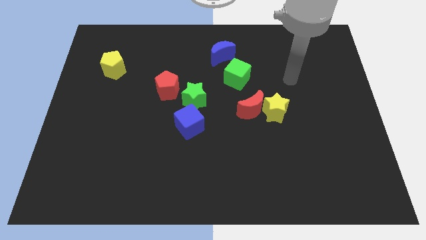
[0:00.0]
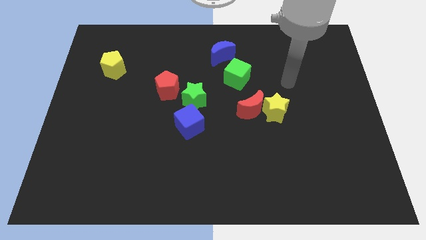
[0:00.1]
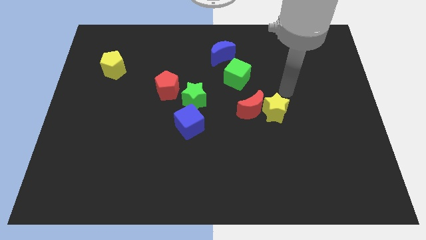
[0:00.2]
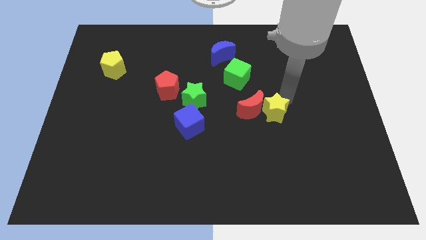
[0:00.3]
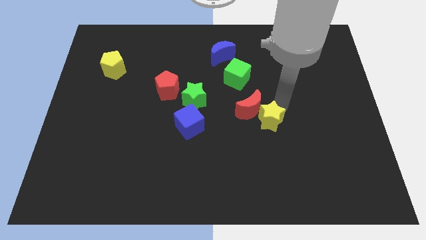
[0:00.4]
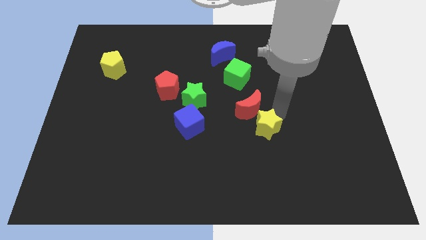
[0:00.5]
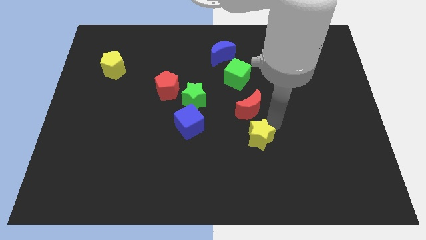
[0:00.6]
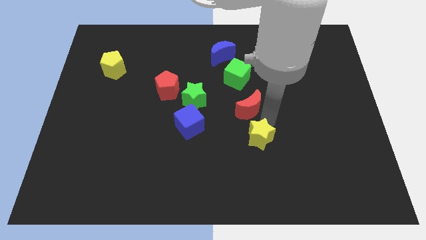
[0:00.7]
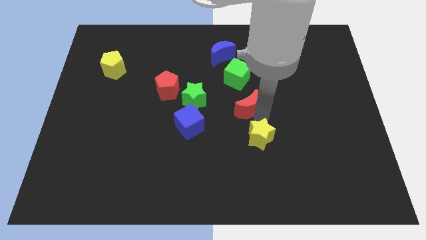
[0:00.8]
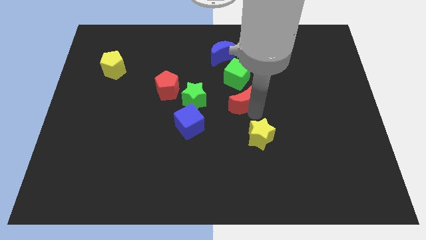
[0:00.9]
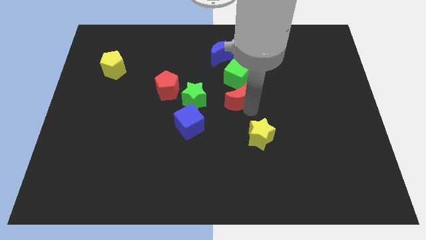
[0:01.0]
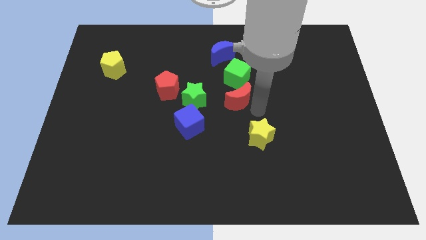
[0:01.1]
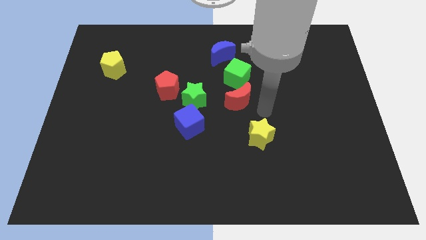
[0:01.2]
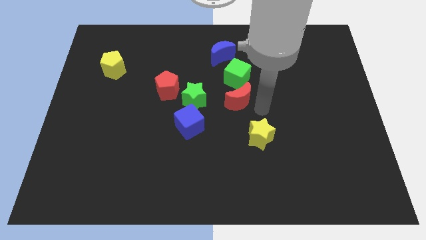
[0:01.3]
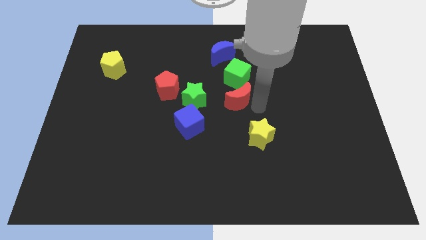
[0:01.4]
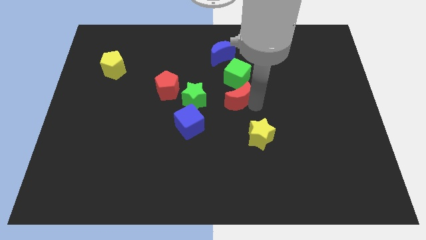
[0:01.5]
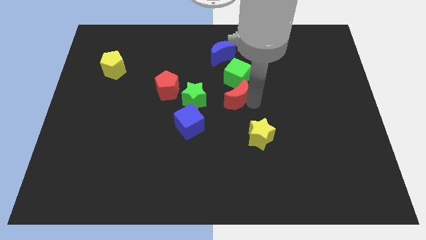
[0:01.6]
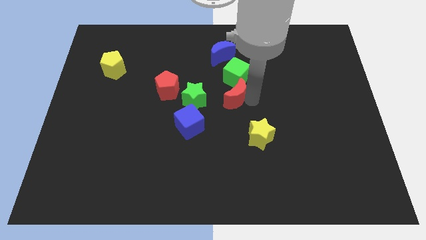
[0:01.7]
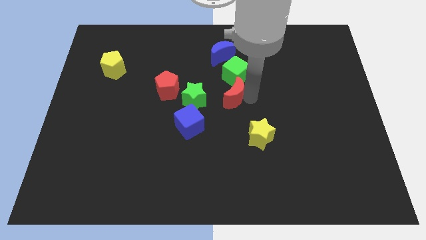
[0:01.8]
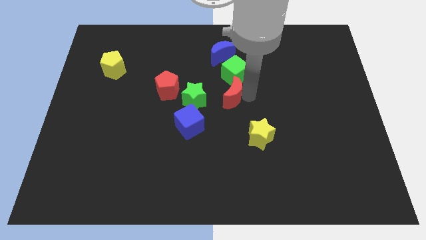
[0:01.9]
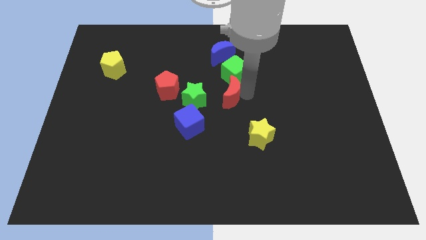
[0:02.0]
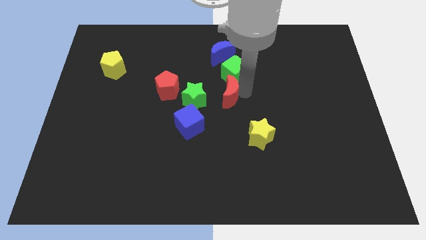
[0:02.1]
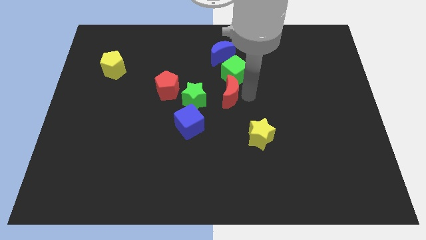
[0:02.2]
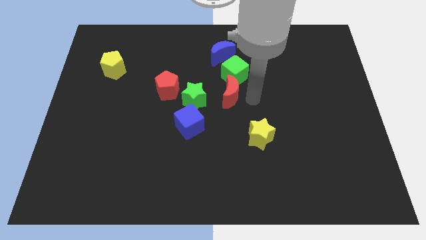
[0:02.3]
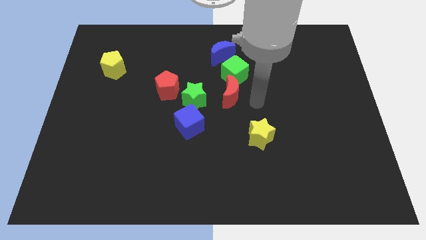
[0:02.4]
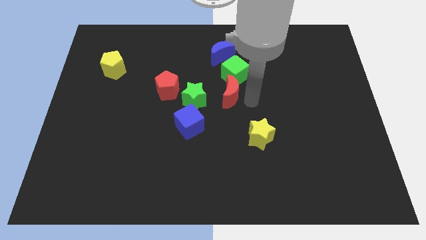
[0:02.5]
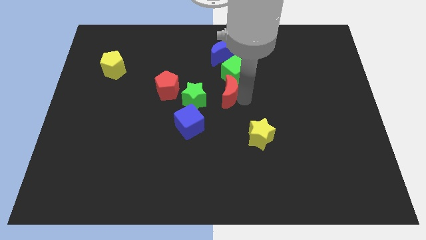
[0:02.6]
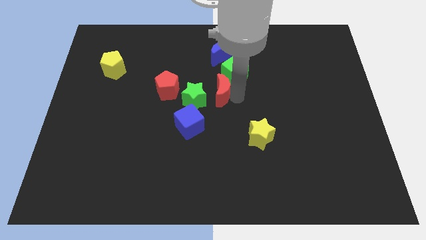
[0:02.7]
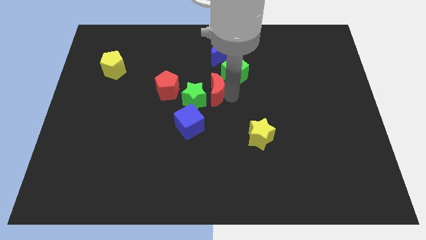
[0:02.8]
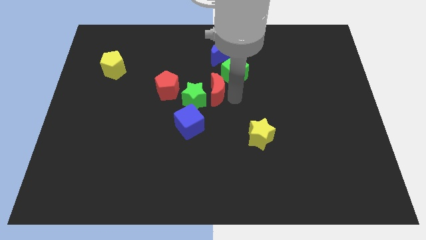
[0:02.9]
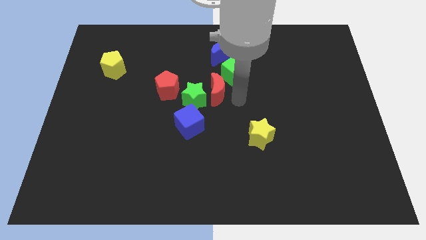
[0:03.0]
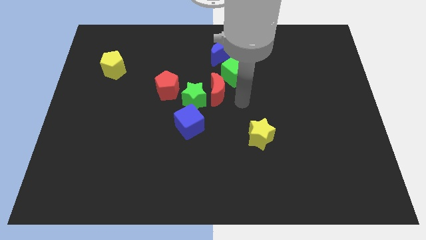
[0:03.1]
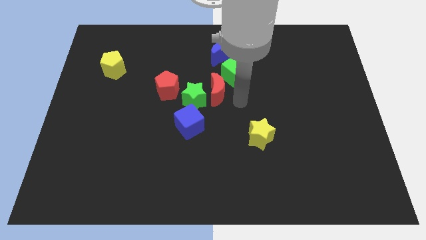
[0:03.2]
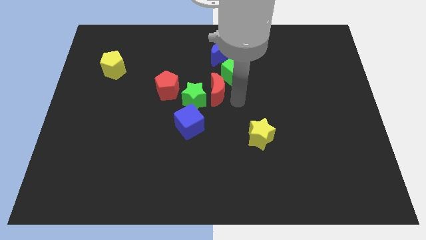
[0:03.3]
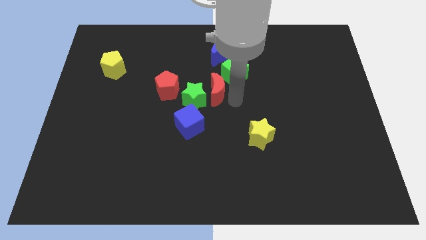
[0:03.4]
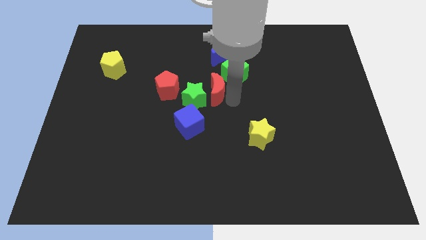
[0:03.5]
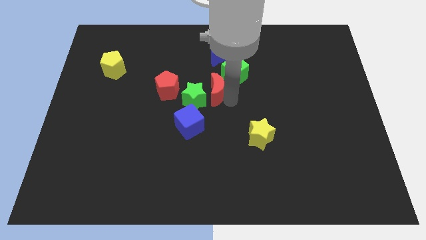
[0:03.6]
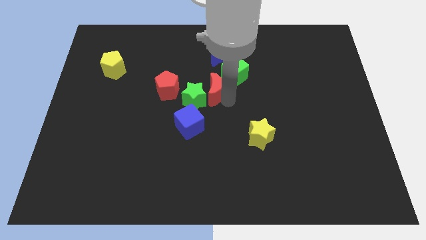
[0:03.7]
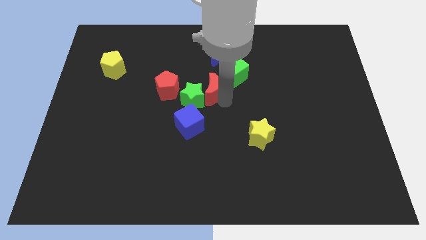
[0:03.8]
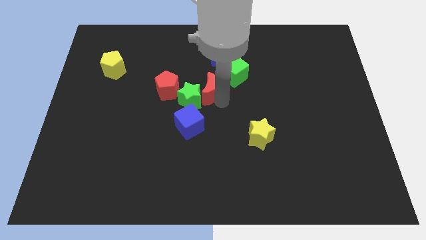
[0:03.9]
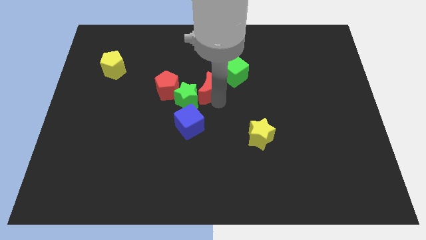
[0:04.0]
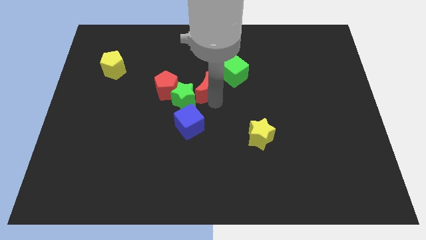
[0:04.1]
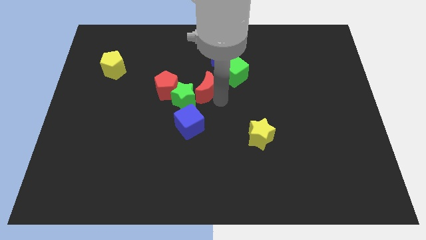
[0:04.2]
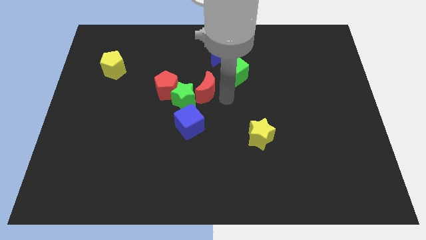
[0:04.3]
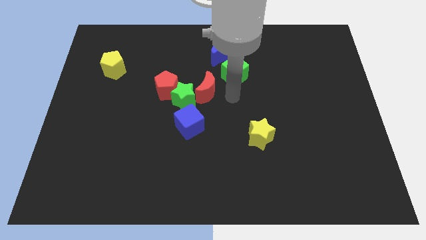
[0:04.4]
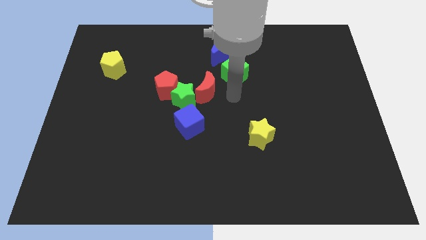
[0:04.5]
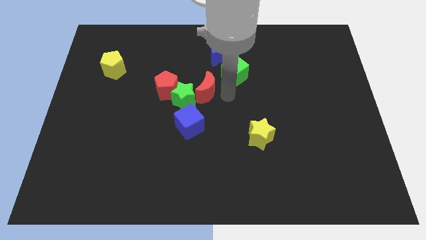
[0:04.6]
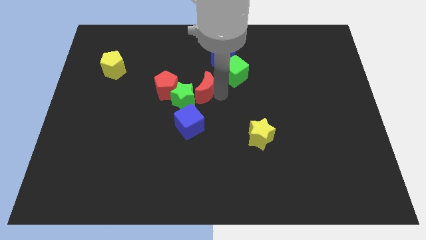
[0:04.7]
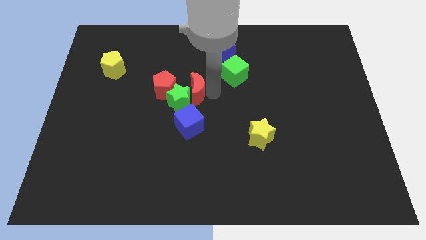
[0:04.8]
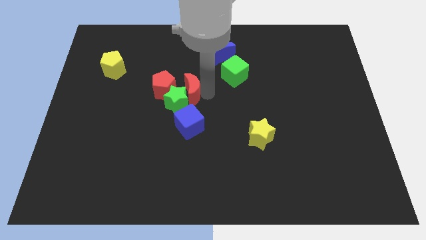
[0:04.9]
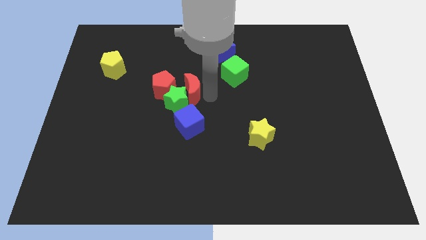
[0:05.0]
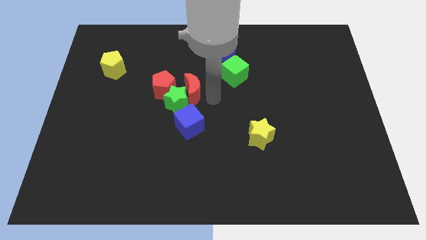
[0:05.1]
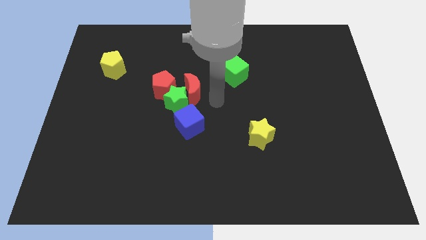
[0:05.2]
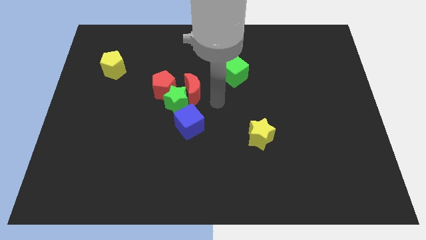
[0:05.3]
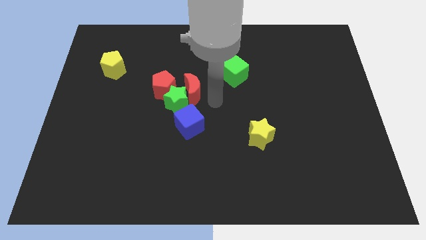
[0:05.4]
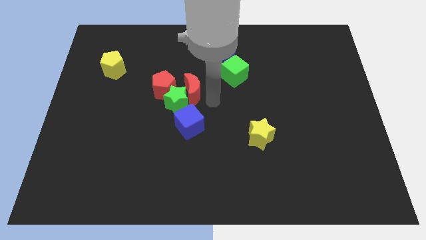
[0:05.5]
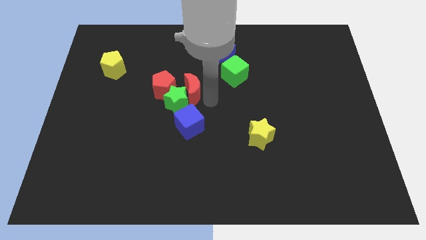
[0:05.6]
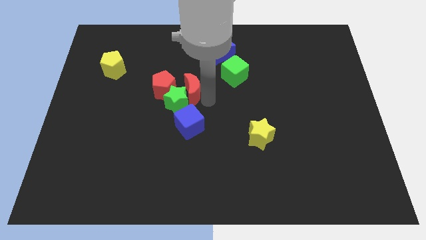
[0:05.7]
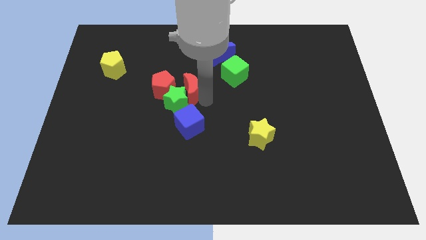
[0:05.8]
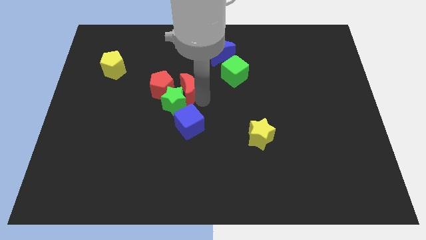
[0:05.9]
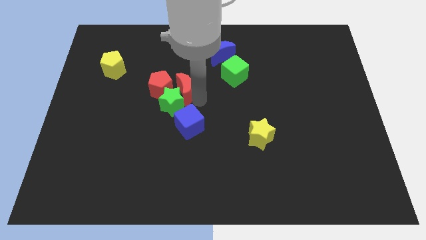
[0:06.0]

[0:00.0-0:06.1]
put the red moon close to the red pentagon
